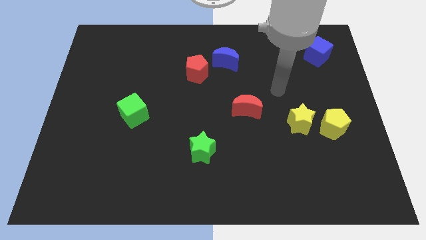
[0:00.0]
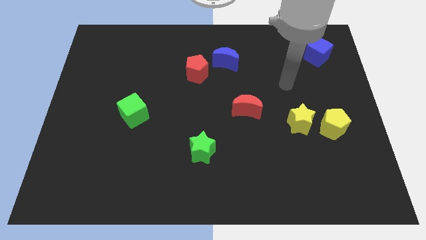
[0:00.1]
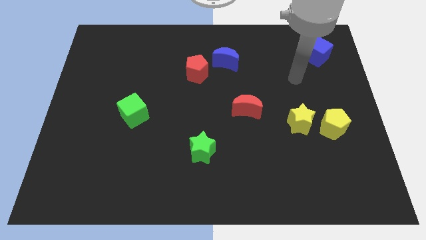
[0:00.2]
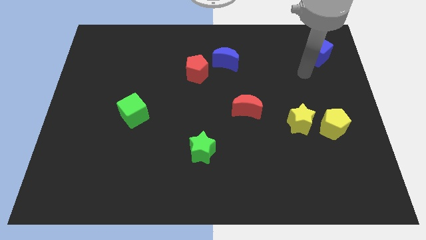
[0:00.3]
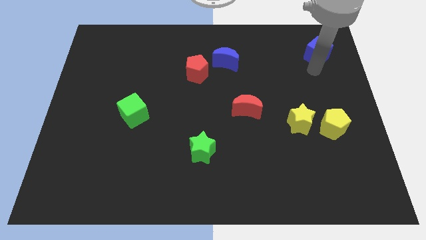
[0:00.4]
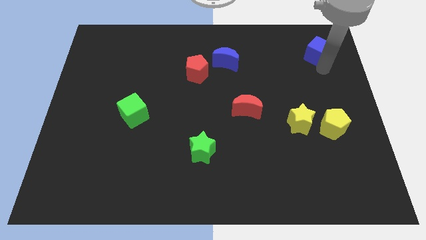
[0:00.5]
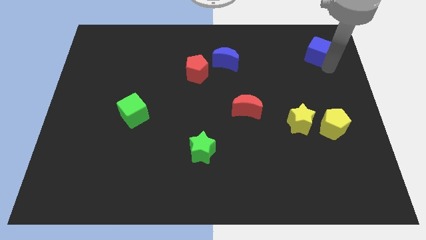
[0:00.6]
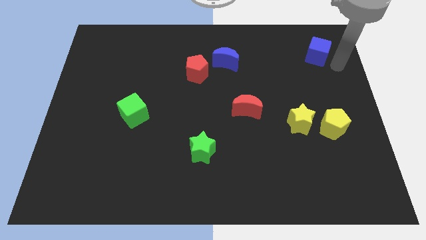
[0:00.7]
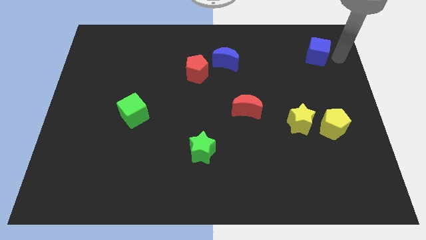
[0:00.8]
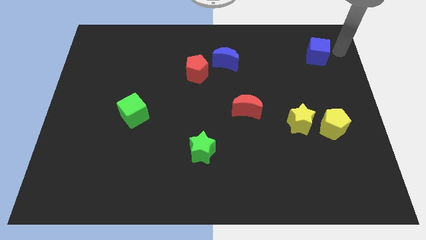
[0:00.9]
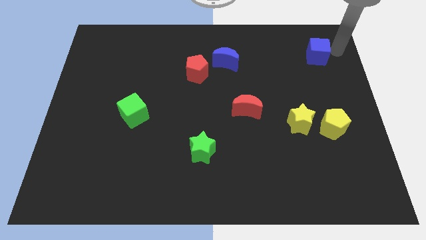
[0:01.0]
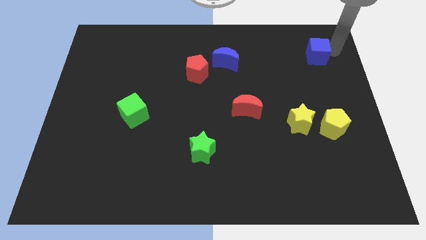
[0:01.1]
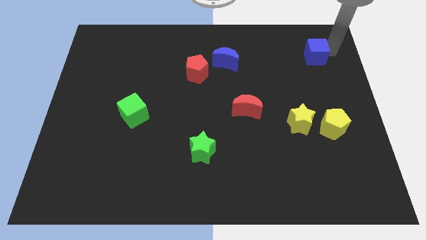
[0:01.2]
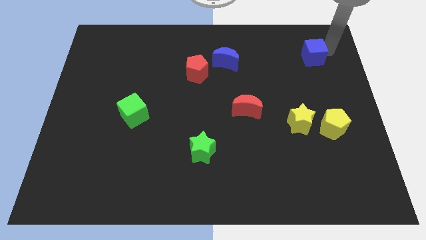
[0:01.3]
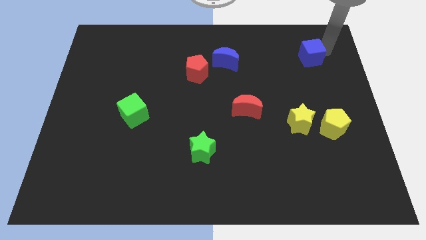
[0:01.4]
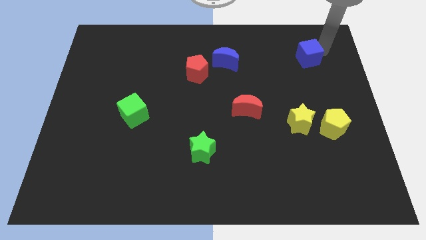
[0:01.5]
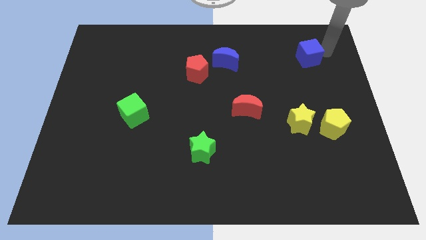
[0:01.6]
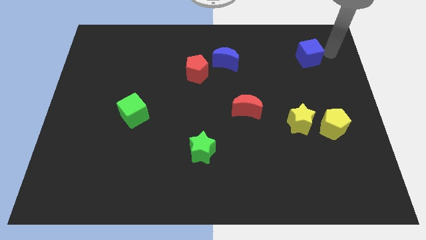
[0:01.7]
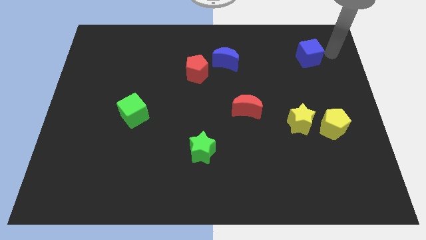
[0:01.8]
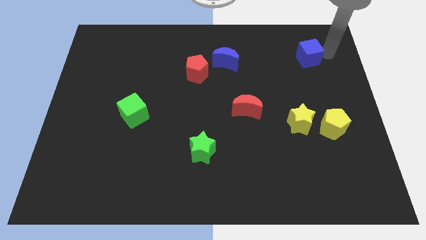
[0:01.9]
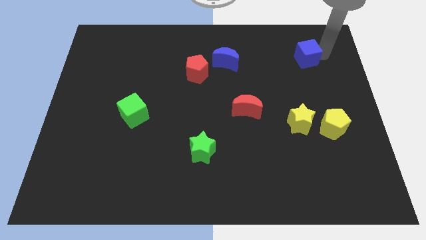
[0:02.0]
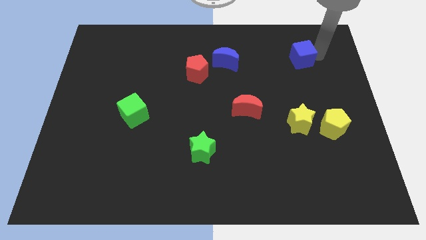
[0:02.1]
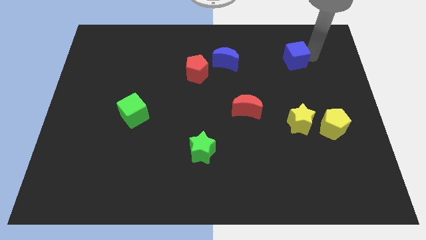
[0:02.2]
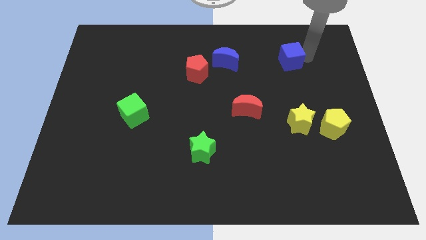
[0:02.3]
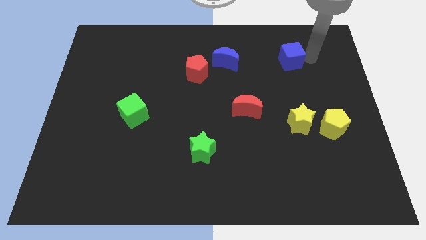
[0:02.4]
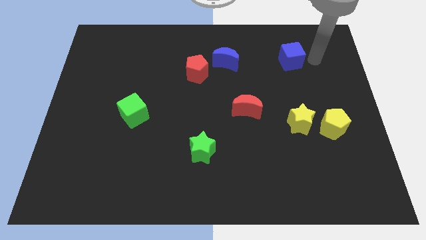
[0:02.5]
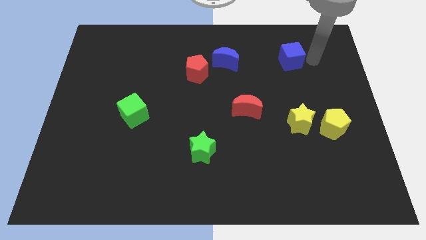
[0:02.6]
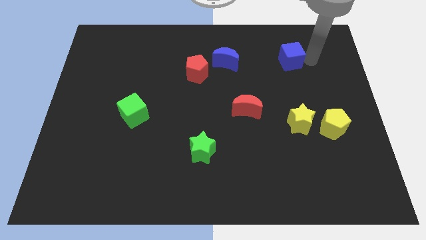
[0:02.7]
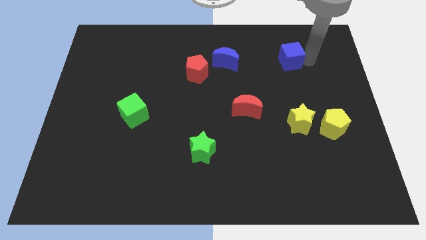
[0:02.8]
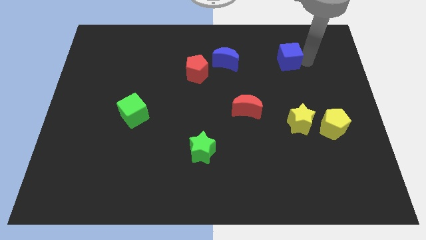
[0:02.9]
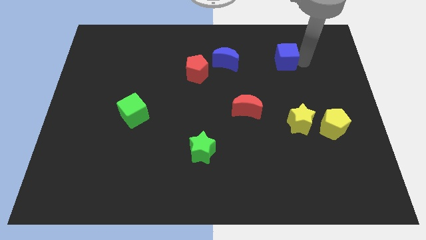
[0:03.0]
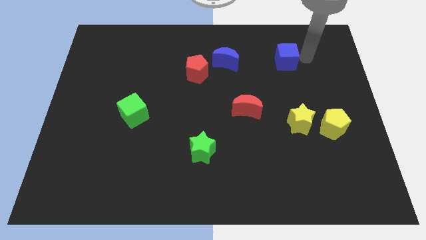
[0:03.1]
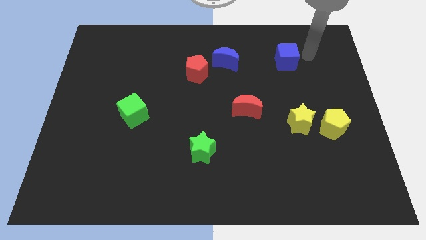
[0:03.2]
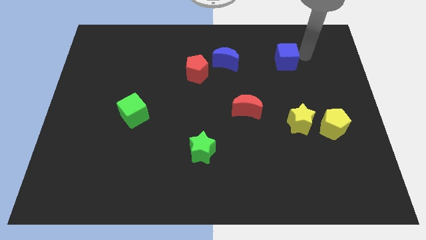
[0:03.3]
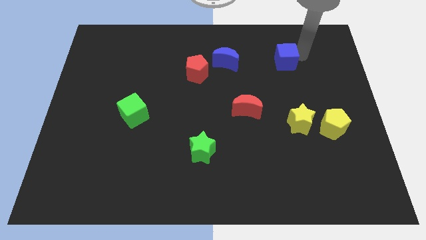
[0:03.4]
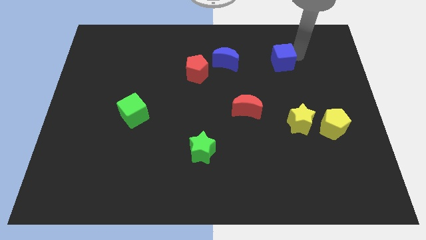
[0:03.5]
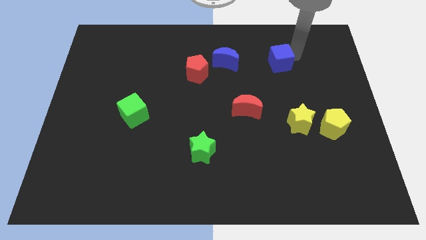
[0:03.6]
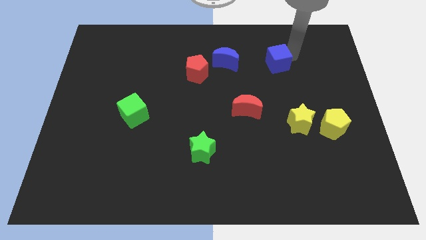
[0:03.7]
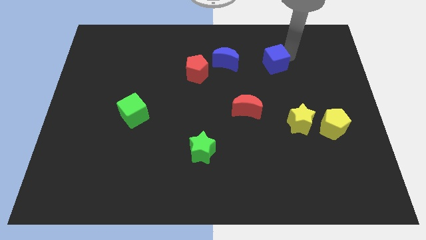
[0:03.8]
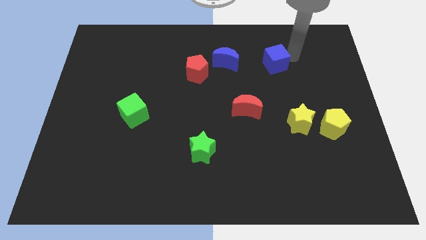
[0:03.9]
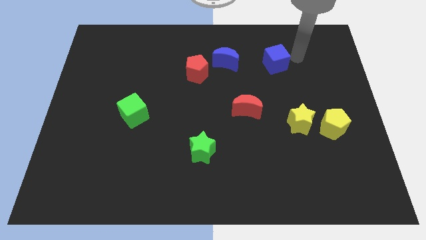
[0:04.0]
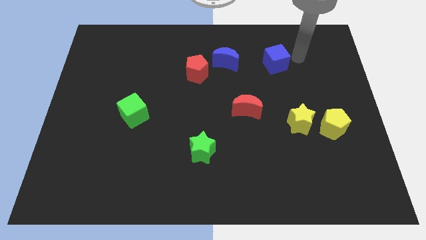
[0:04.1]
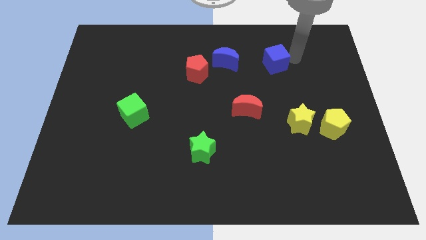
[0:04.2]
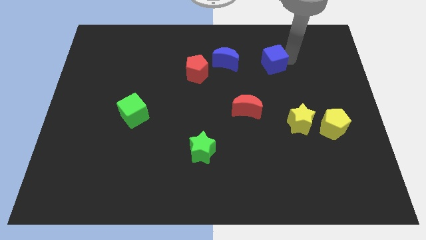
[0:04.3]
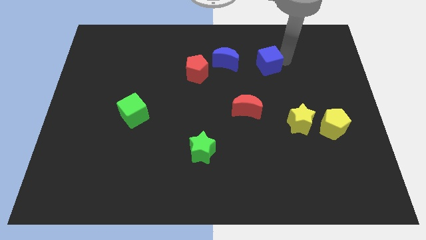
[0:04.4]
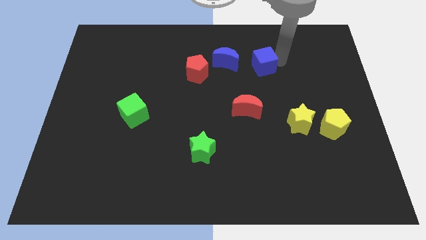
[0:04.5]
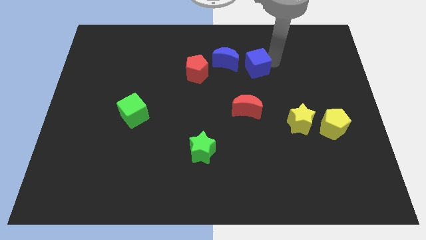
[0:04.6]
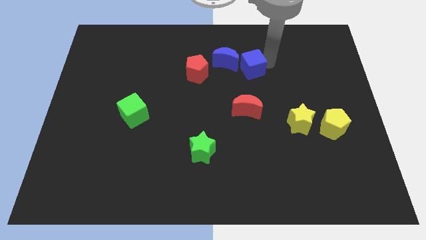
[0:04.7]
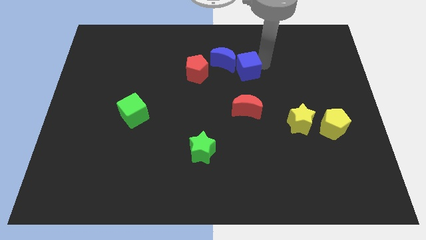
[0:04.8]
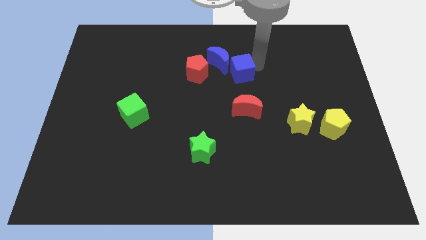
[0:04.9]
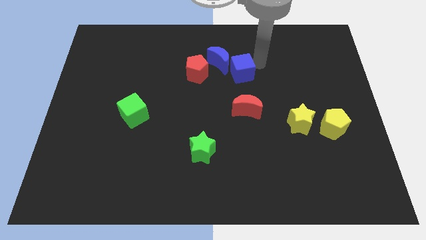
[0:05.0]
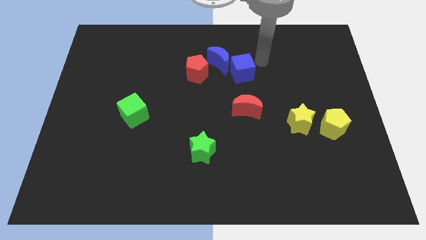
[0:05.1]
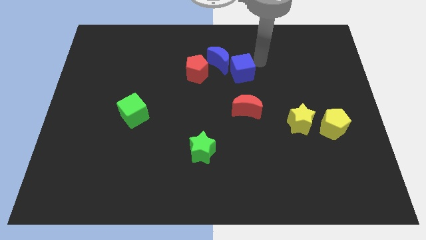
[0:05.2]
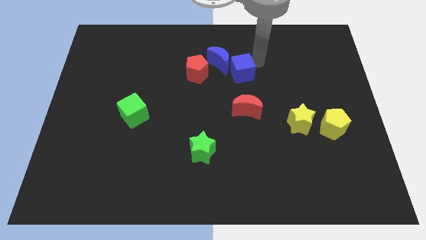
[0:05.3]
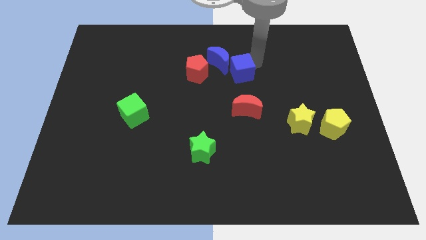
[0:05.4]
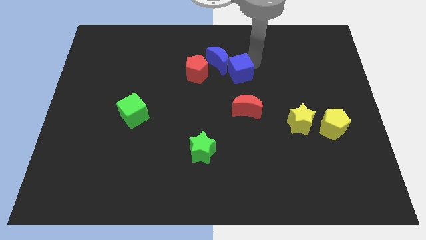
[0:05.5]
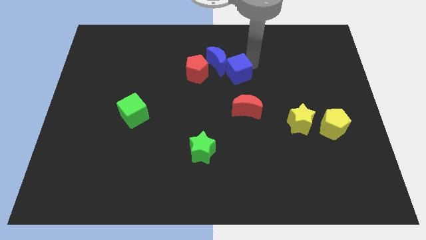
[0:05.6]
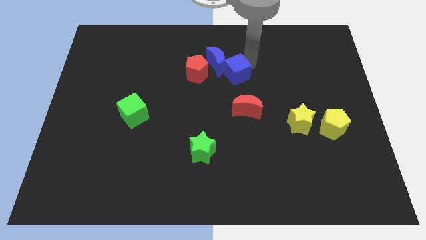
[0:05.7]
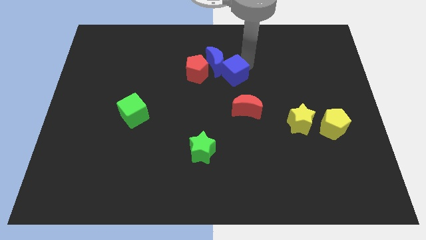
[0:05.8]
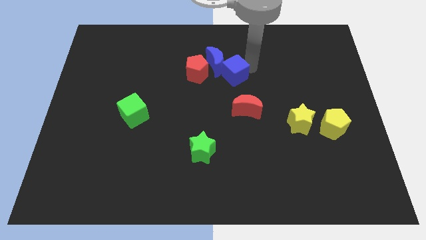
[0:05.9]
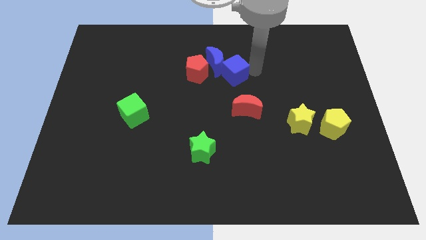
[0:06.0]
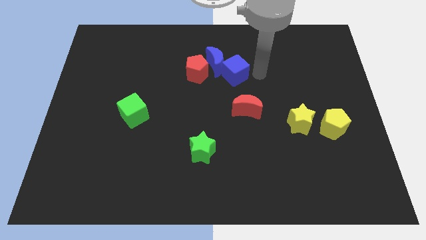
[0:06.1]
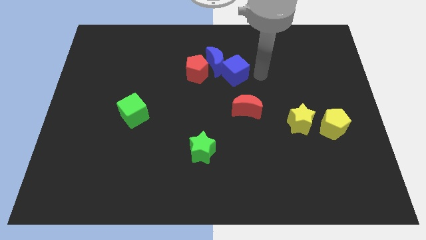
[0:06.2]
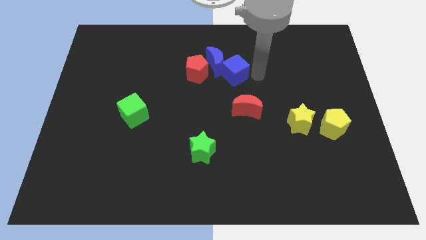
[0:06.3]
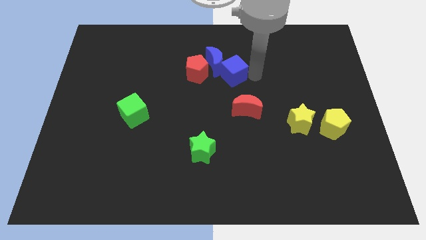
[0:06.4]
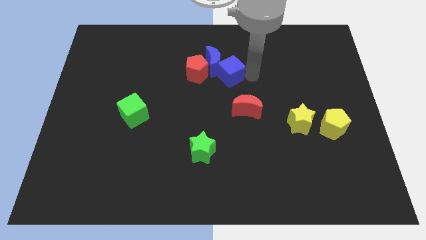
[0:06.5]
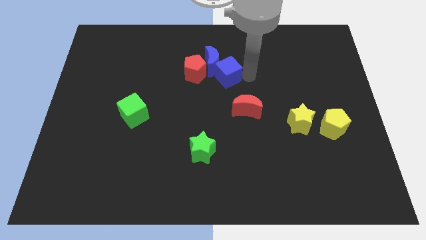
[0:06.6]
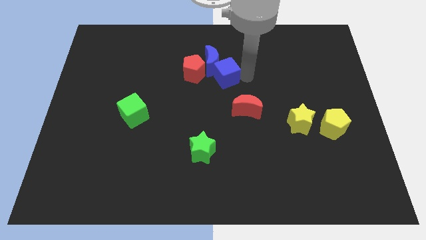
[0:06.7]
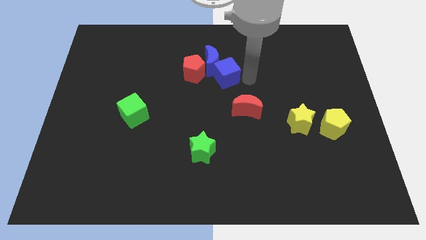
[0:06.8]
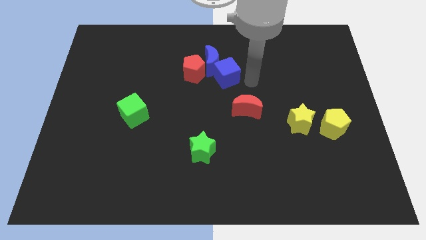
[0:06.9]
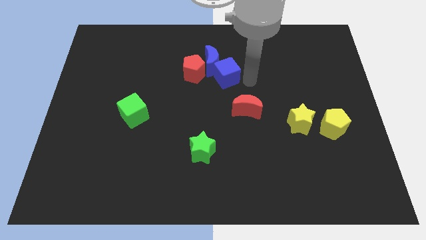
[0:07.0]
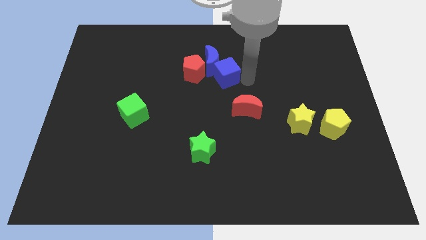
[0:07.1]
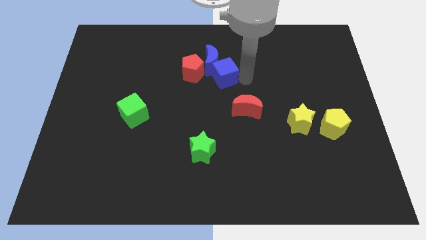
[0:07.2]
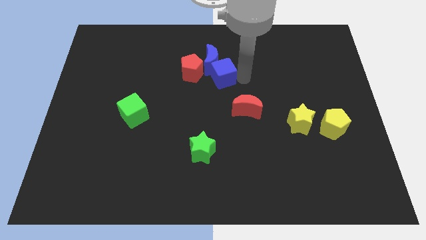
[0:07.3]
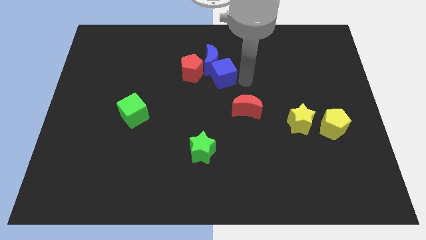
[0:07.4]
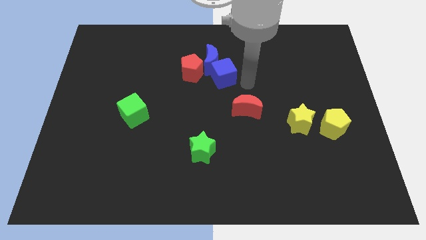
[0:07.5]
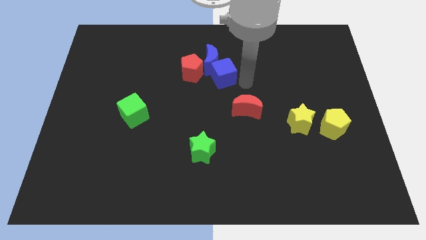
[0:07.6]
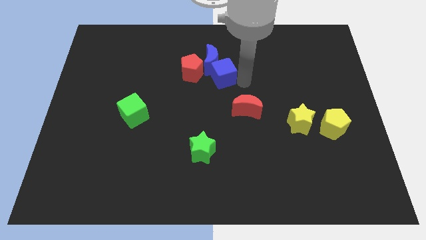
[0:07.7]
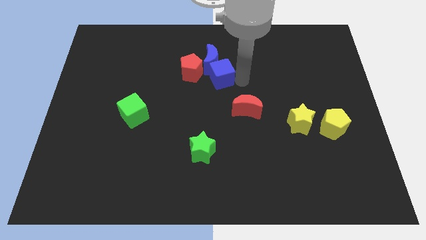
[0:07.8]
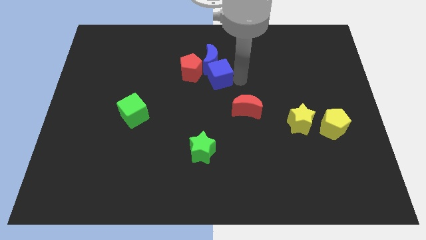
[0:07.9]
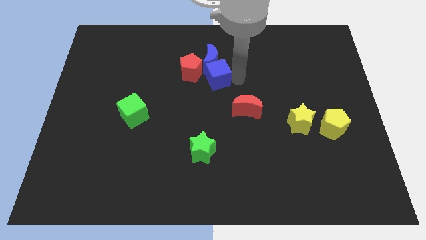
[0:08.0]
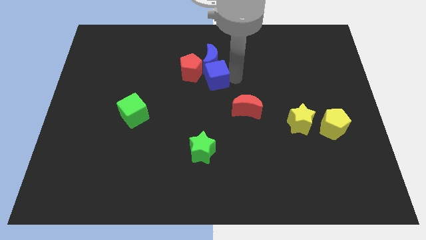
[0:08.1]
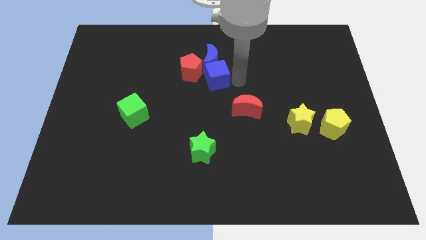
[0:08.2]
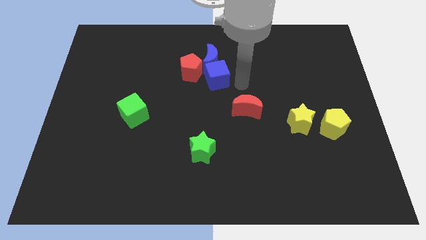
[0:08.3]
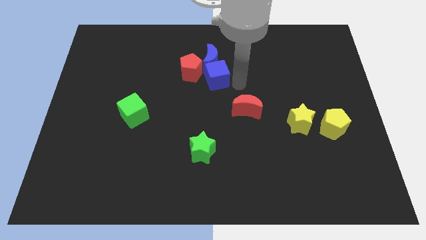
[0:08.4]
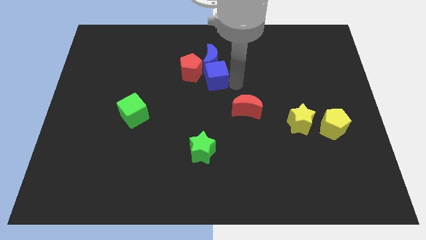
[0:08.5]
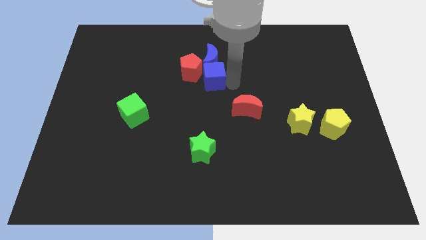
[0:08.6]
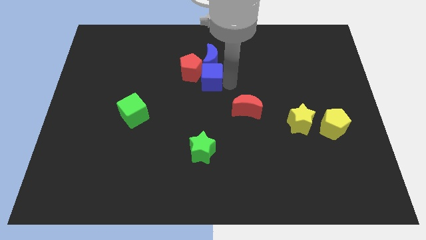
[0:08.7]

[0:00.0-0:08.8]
put the blue cube next to the red pentagon
